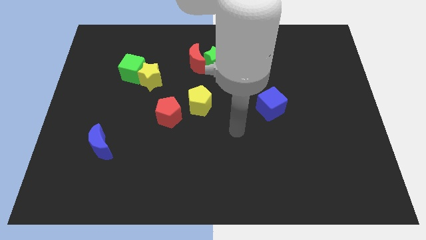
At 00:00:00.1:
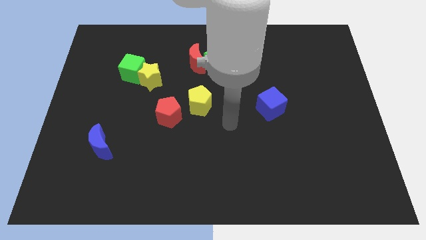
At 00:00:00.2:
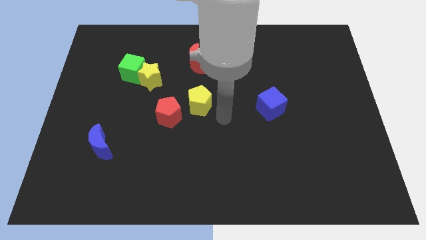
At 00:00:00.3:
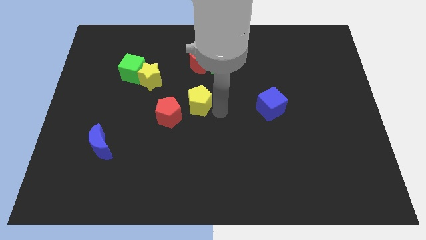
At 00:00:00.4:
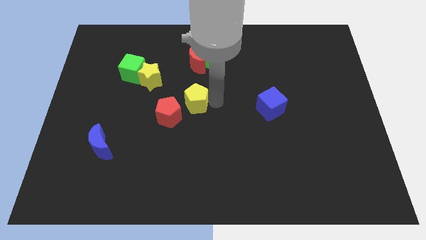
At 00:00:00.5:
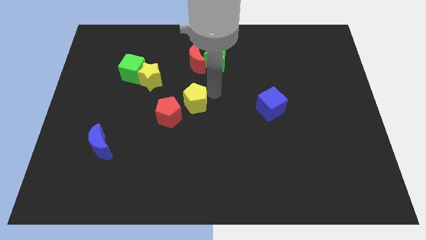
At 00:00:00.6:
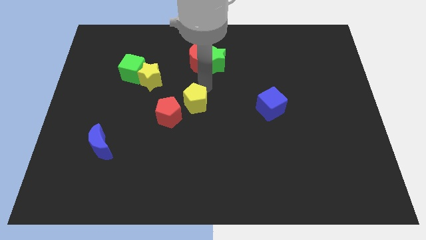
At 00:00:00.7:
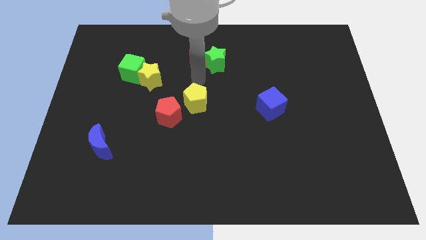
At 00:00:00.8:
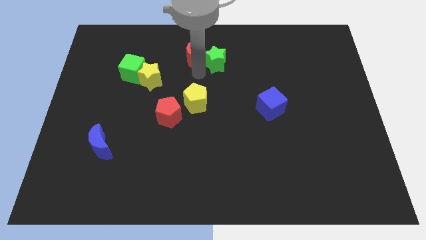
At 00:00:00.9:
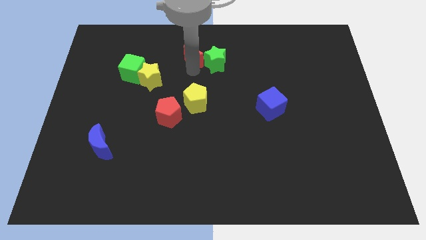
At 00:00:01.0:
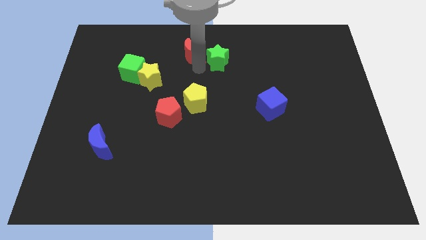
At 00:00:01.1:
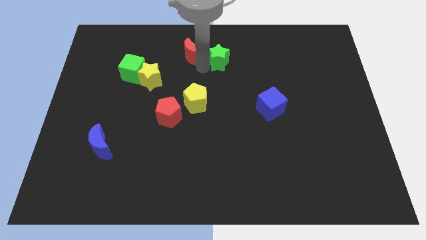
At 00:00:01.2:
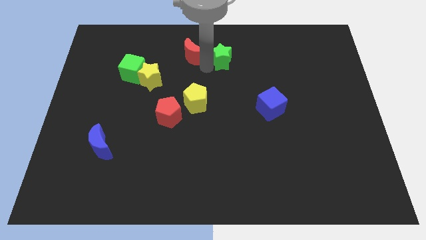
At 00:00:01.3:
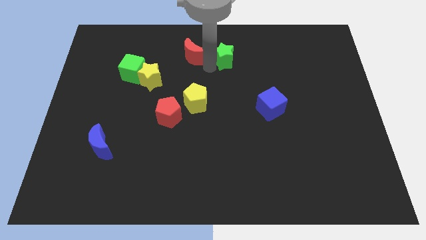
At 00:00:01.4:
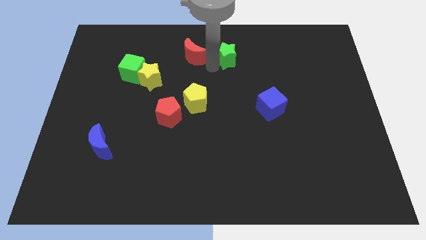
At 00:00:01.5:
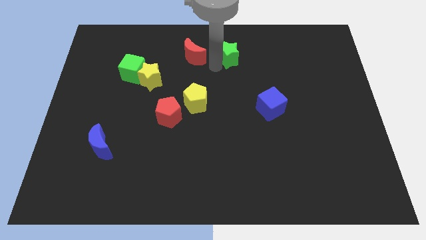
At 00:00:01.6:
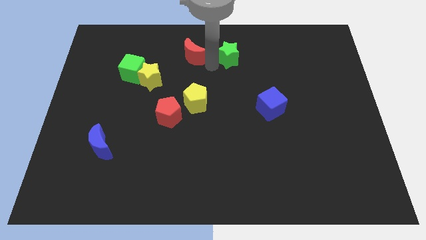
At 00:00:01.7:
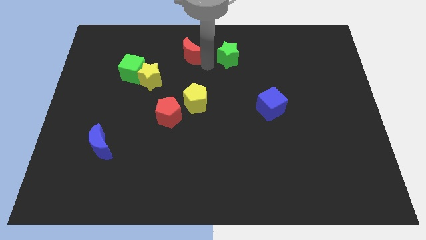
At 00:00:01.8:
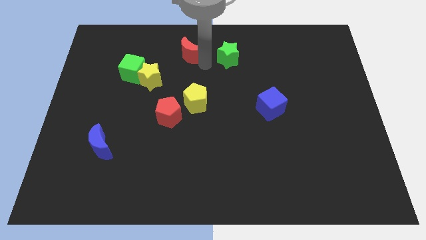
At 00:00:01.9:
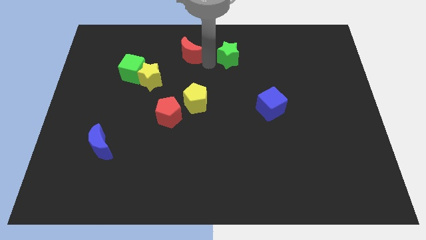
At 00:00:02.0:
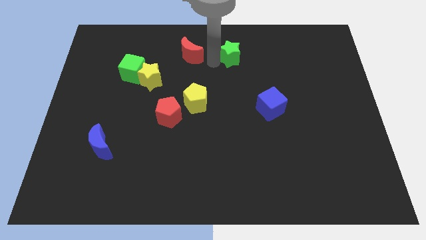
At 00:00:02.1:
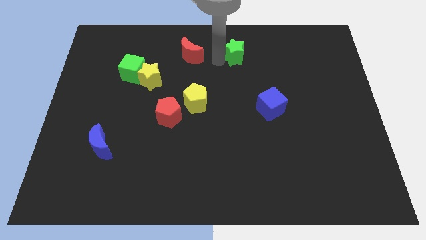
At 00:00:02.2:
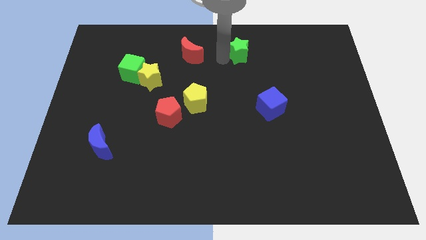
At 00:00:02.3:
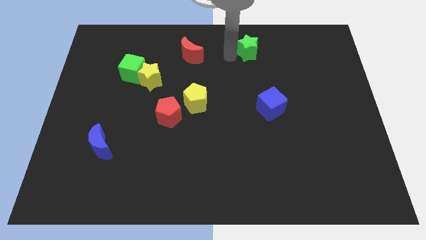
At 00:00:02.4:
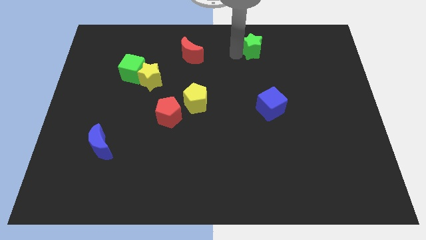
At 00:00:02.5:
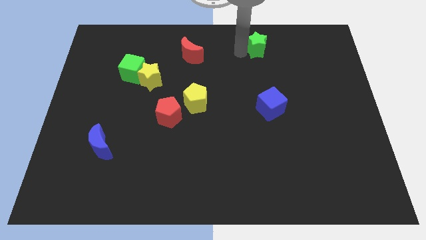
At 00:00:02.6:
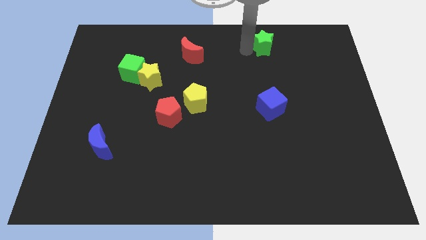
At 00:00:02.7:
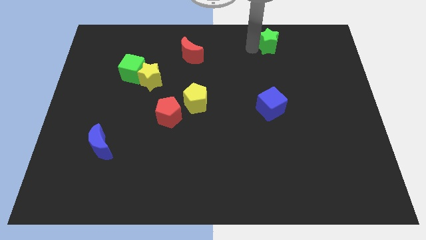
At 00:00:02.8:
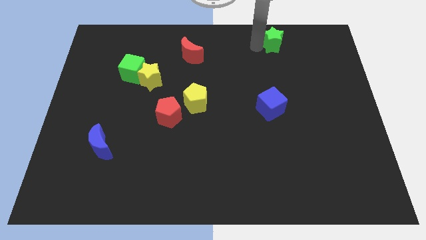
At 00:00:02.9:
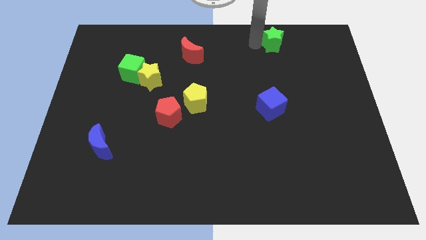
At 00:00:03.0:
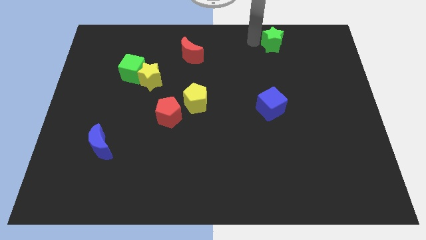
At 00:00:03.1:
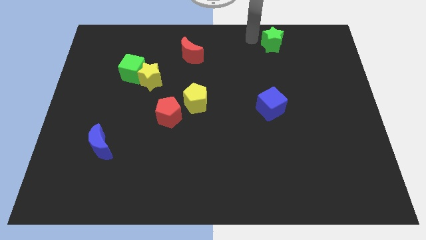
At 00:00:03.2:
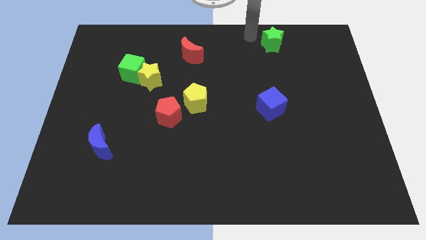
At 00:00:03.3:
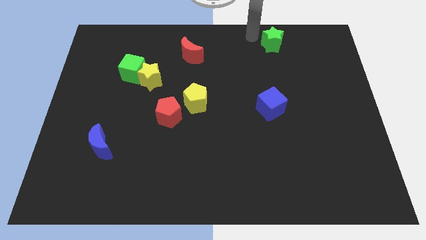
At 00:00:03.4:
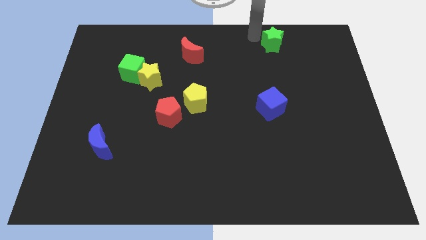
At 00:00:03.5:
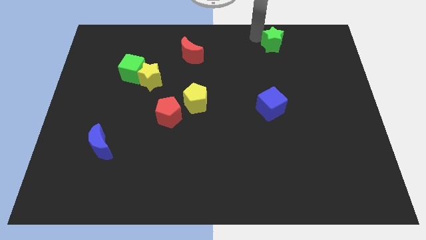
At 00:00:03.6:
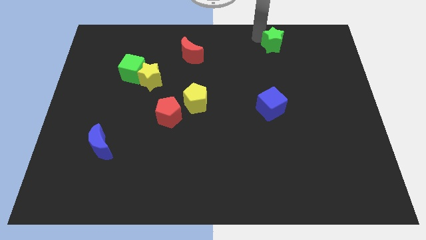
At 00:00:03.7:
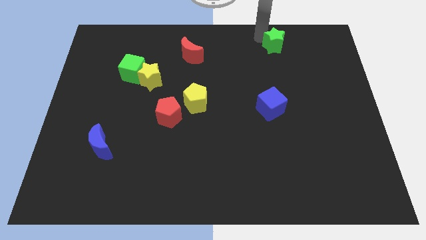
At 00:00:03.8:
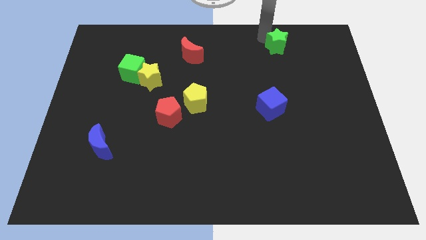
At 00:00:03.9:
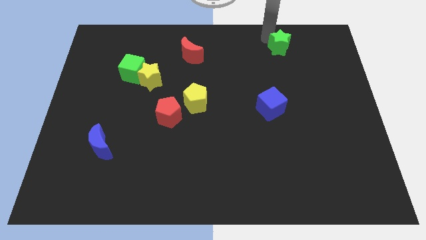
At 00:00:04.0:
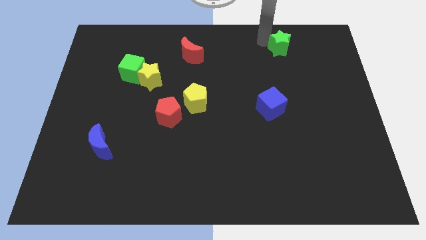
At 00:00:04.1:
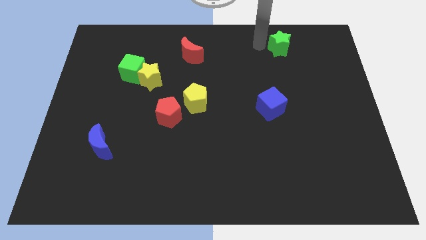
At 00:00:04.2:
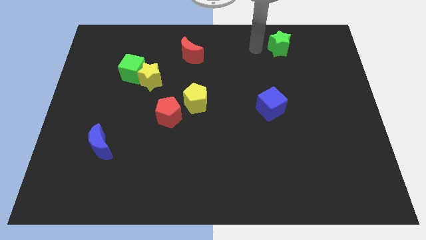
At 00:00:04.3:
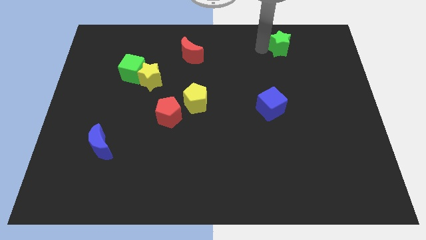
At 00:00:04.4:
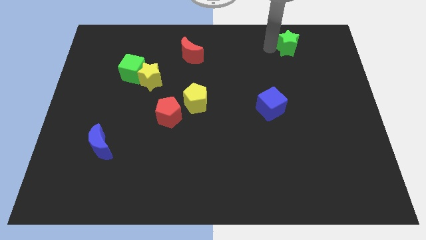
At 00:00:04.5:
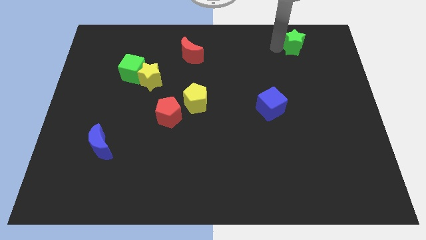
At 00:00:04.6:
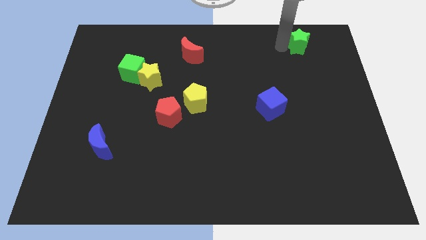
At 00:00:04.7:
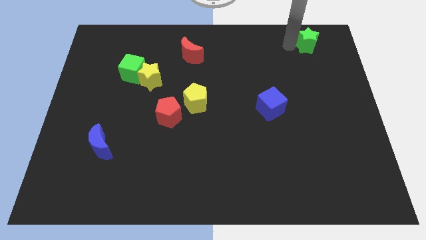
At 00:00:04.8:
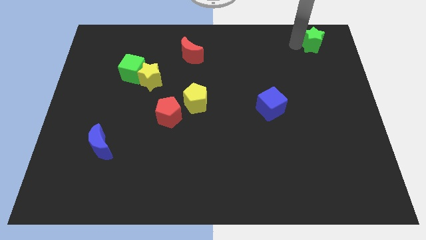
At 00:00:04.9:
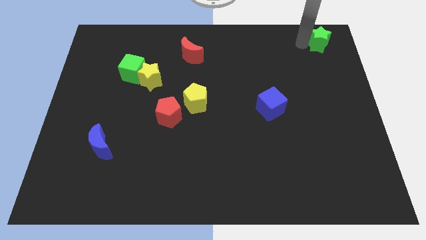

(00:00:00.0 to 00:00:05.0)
slide the green star to the upper right corner
